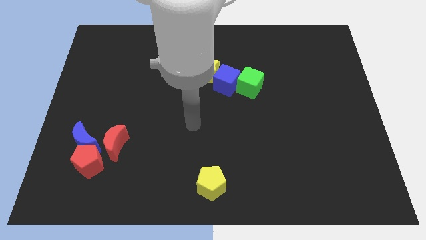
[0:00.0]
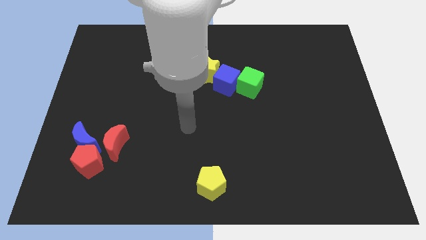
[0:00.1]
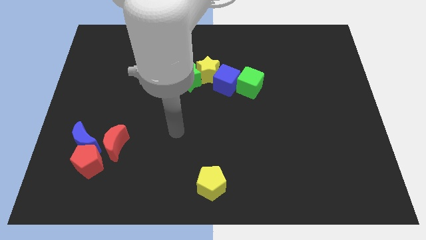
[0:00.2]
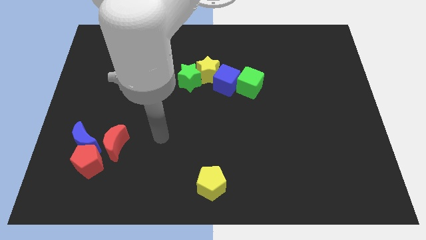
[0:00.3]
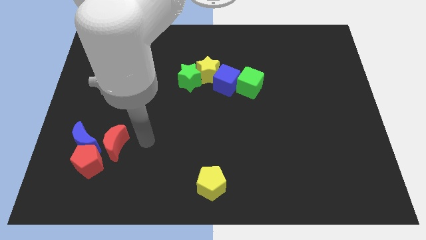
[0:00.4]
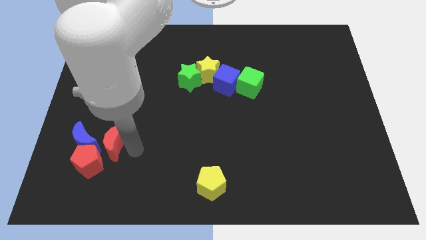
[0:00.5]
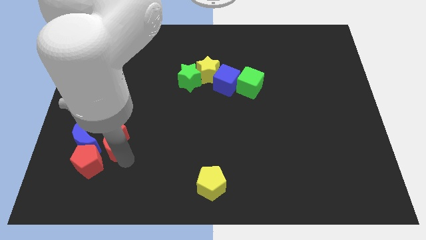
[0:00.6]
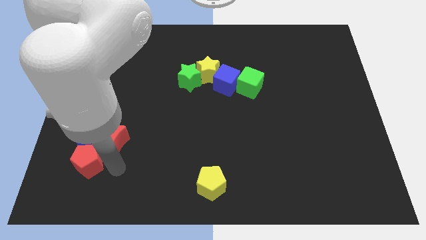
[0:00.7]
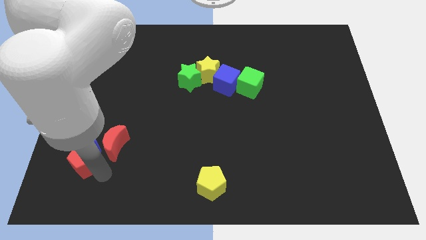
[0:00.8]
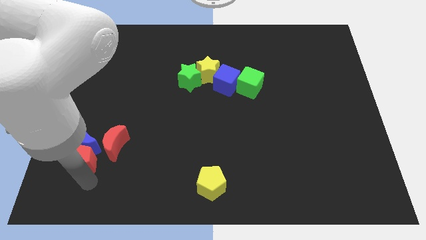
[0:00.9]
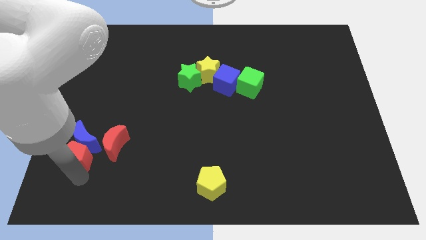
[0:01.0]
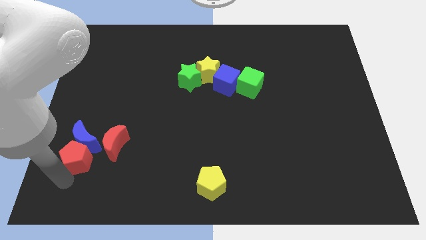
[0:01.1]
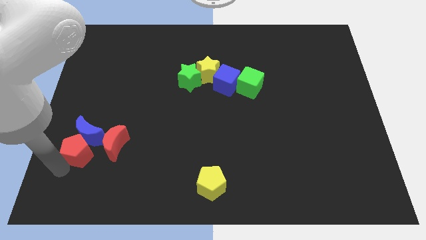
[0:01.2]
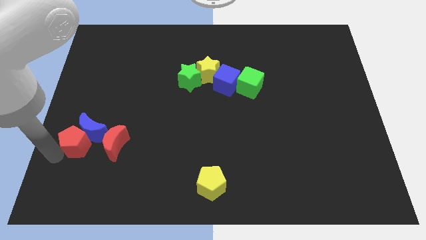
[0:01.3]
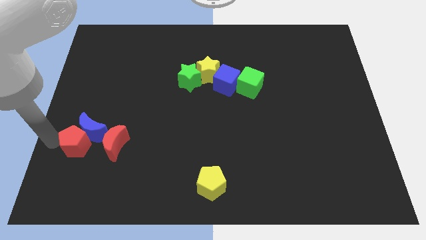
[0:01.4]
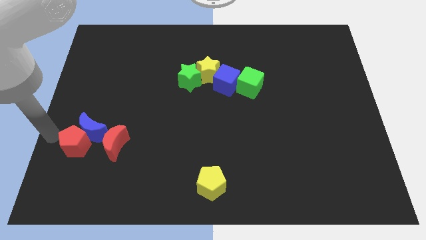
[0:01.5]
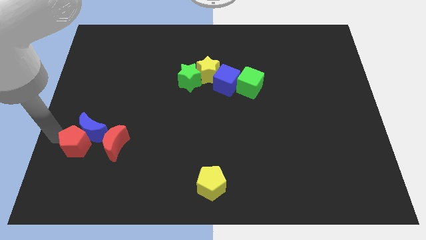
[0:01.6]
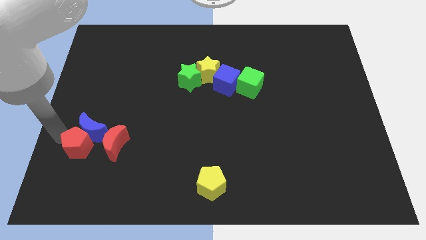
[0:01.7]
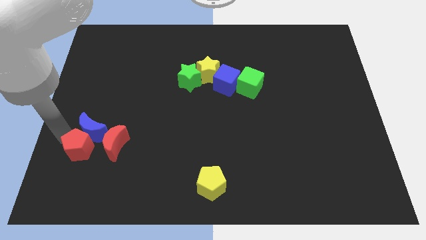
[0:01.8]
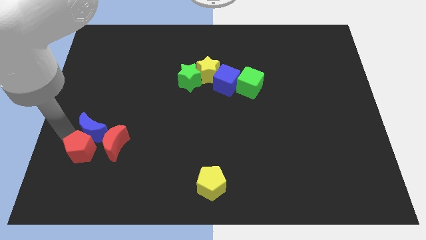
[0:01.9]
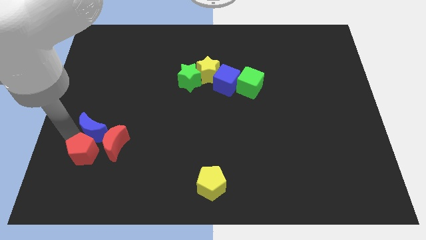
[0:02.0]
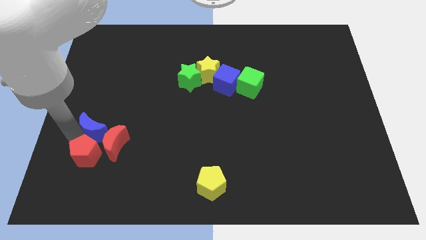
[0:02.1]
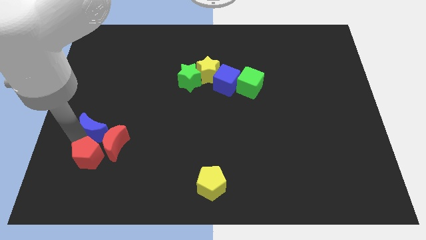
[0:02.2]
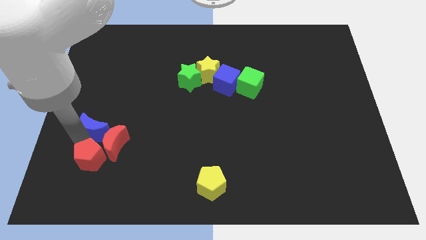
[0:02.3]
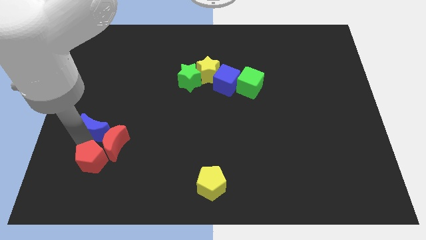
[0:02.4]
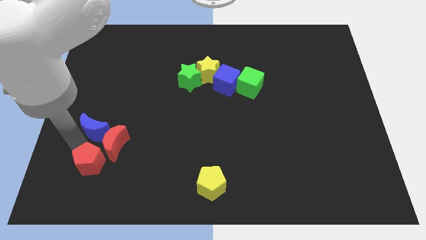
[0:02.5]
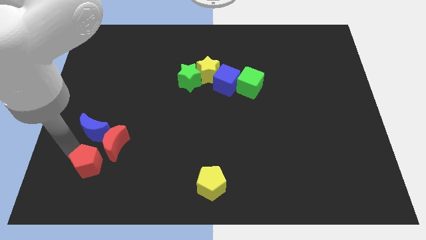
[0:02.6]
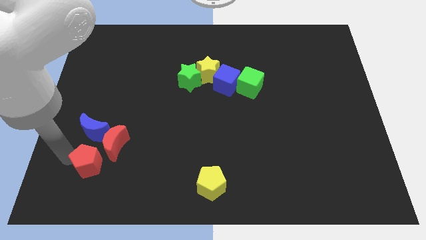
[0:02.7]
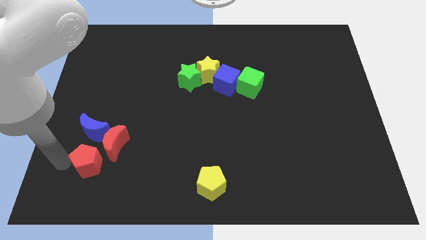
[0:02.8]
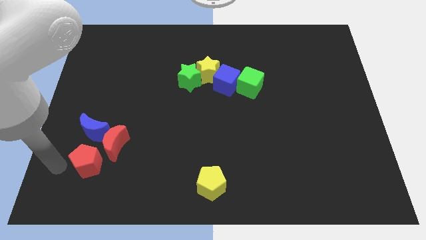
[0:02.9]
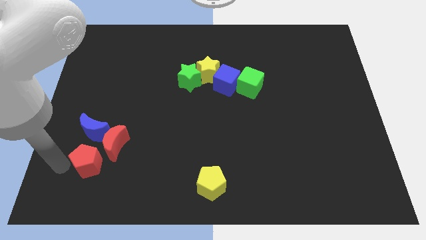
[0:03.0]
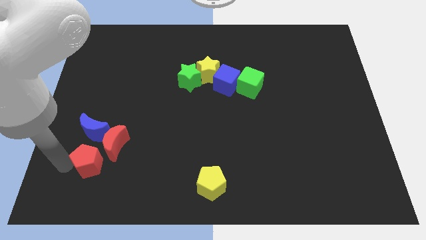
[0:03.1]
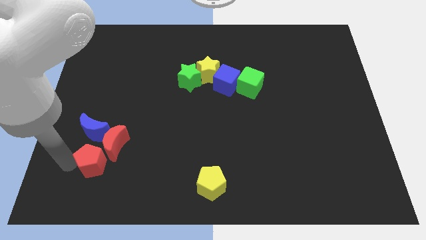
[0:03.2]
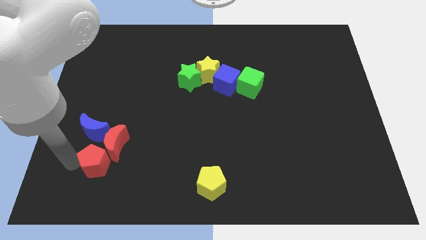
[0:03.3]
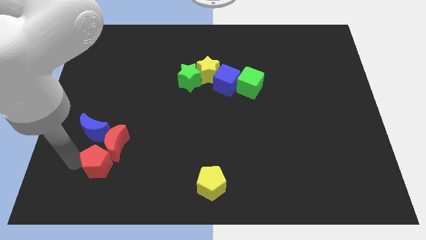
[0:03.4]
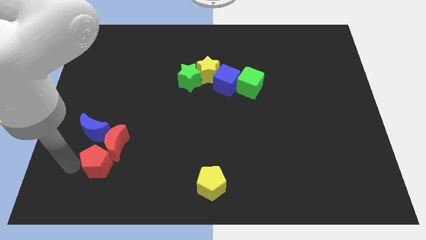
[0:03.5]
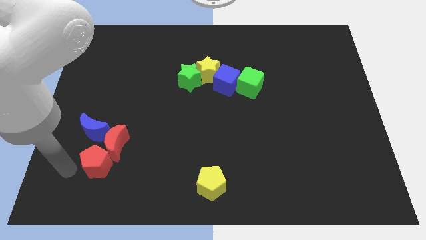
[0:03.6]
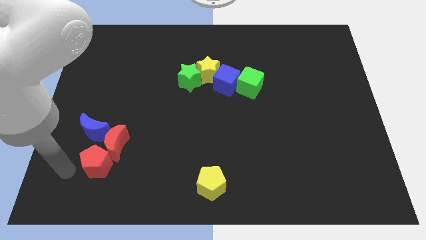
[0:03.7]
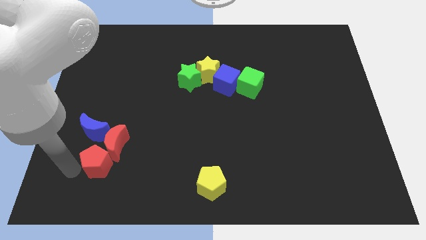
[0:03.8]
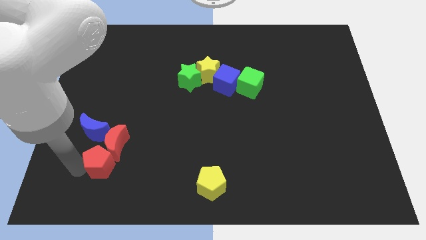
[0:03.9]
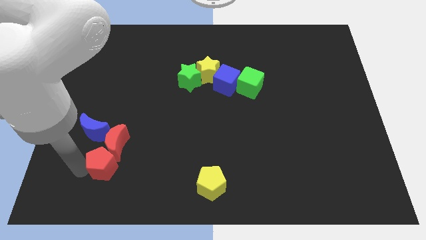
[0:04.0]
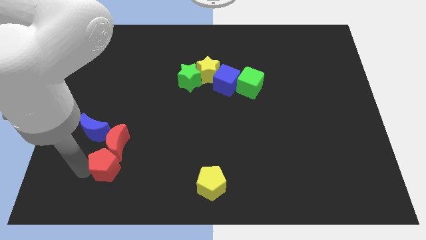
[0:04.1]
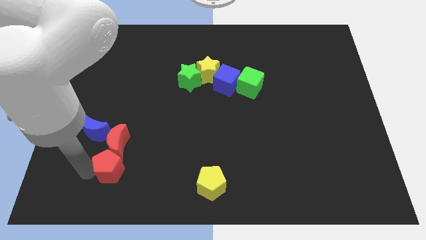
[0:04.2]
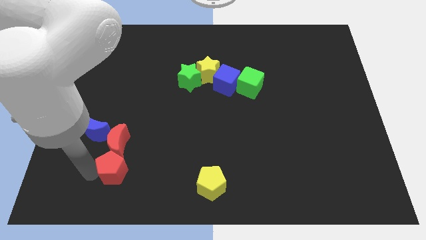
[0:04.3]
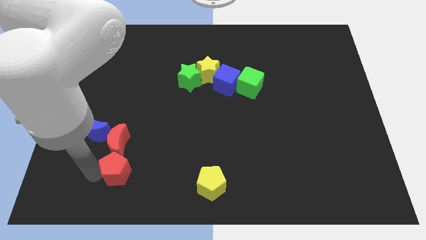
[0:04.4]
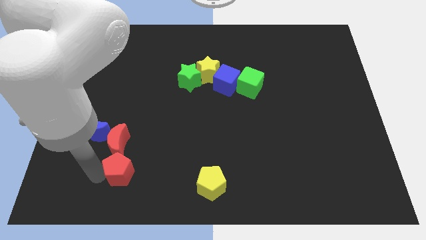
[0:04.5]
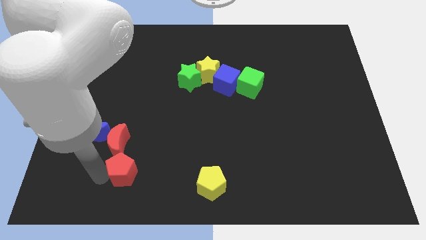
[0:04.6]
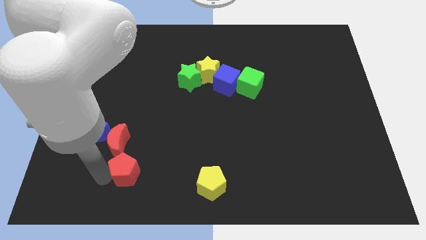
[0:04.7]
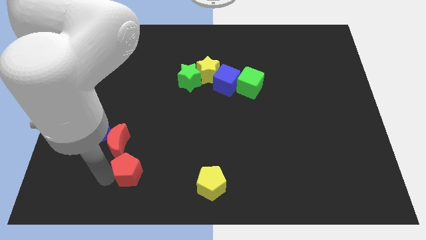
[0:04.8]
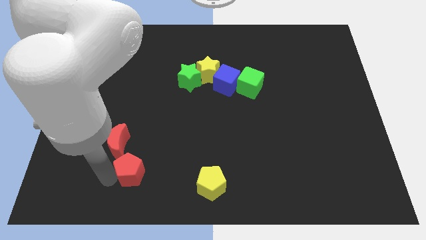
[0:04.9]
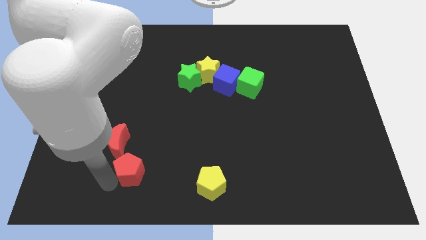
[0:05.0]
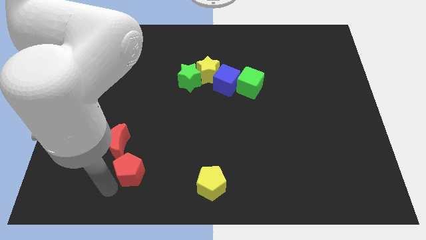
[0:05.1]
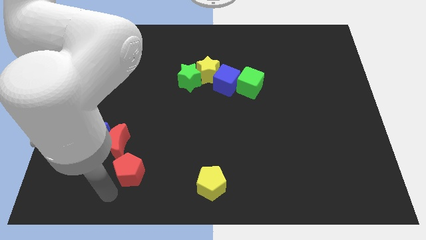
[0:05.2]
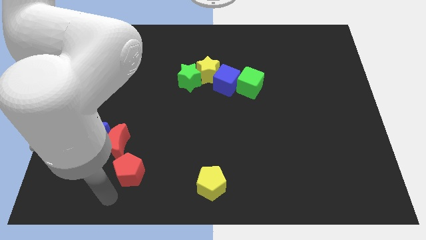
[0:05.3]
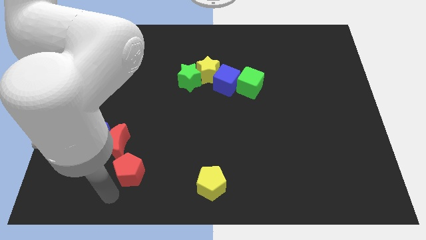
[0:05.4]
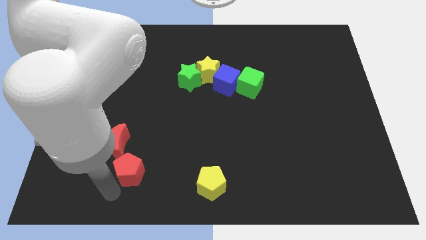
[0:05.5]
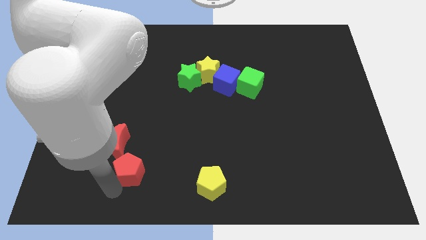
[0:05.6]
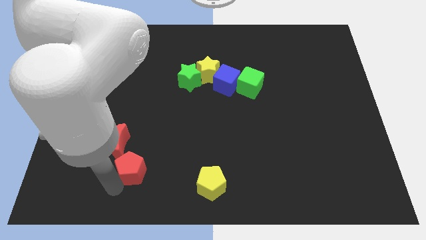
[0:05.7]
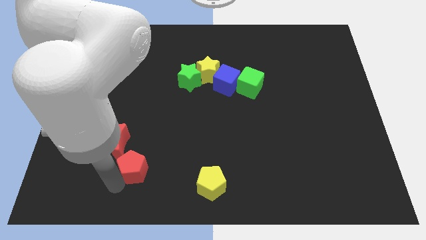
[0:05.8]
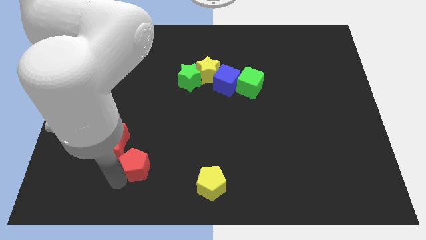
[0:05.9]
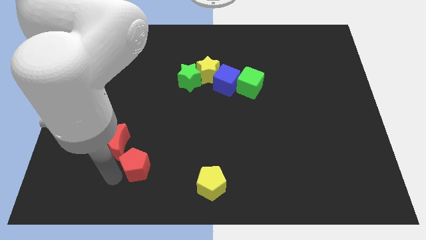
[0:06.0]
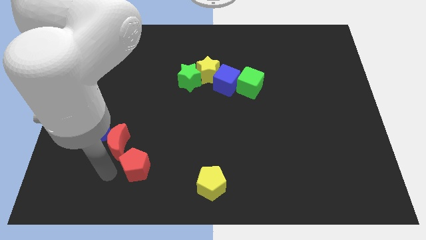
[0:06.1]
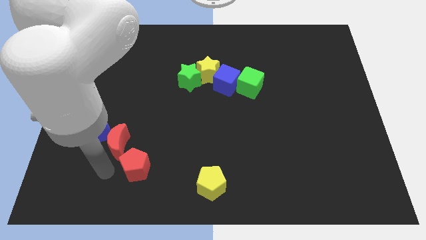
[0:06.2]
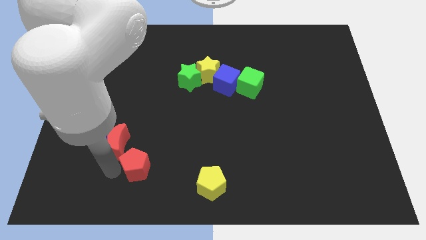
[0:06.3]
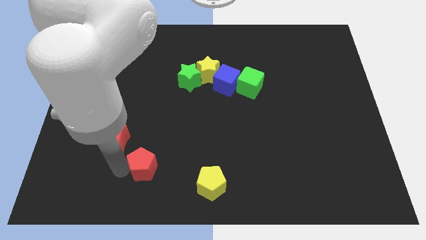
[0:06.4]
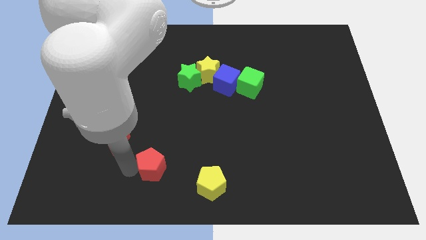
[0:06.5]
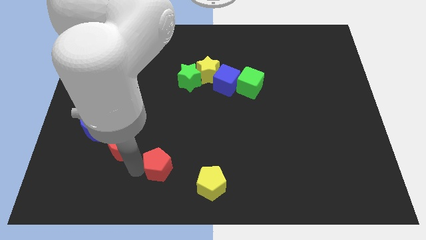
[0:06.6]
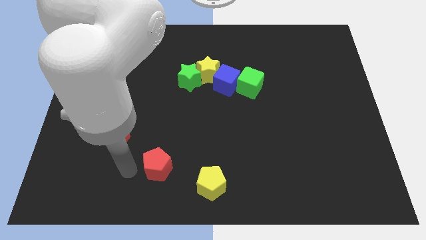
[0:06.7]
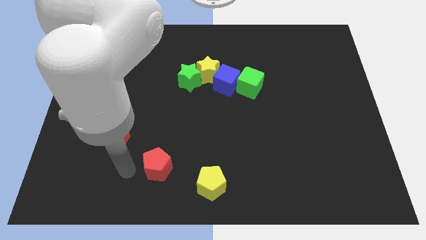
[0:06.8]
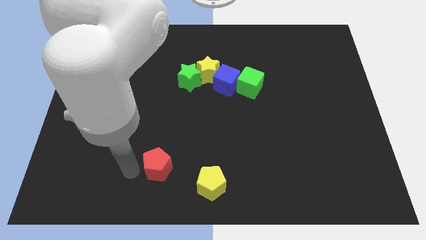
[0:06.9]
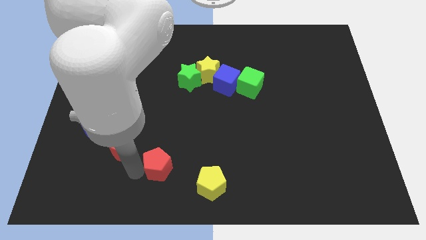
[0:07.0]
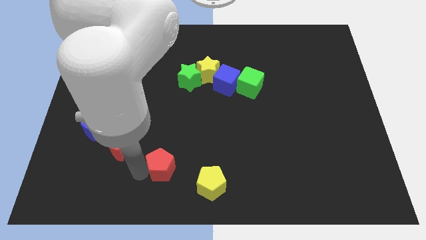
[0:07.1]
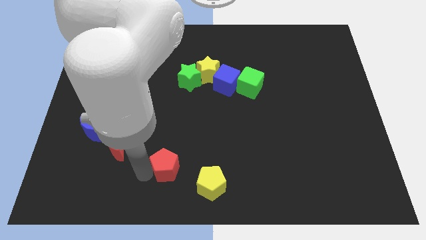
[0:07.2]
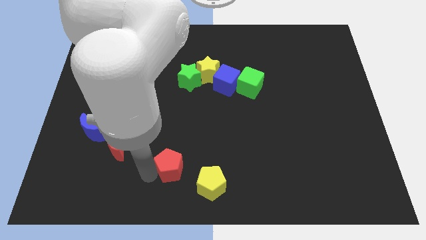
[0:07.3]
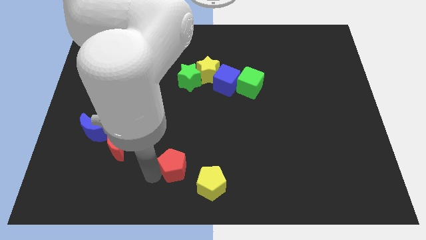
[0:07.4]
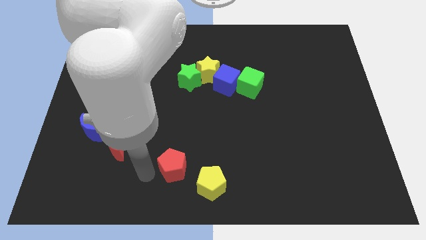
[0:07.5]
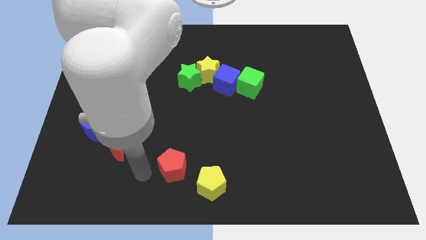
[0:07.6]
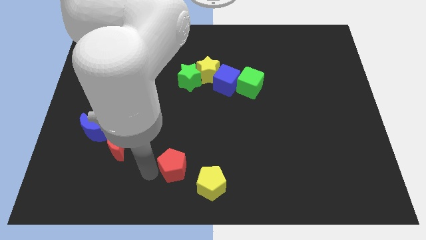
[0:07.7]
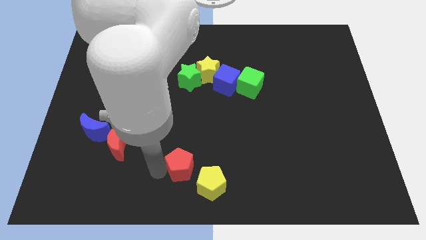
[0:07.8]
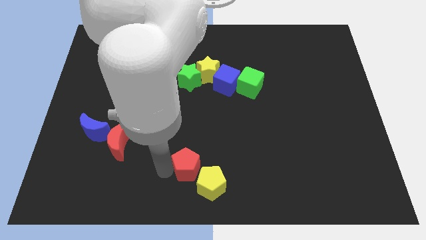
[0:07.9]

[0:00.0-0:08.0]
push the red pentagon to the right

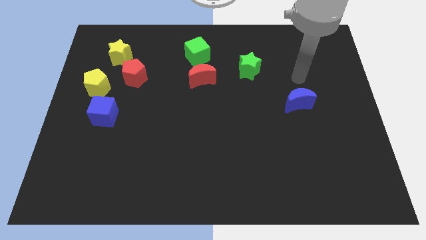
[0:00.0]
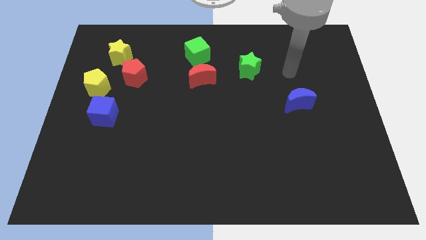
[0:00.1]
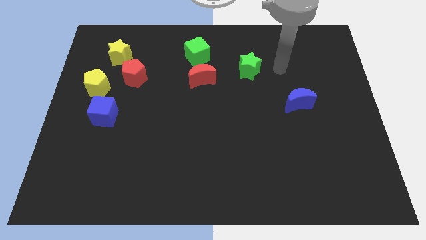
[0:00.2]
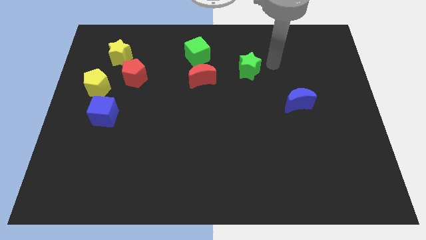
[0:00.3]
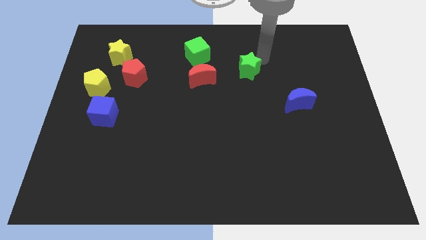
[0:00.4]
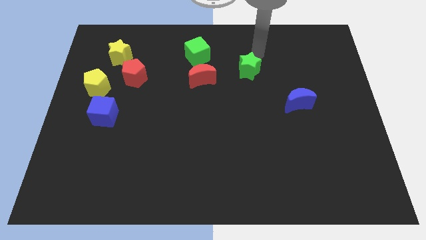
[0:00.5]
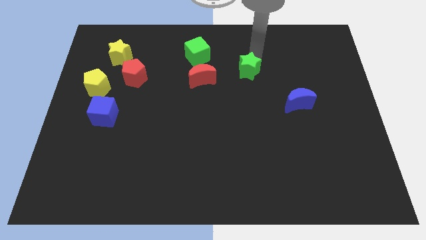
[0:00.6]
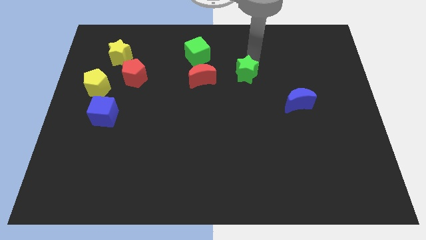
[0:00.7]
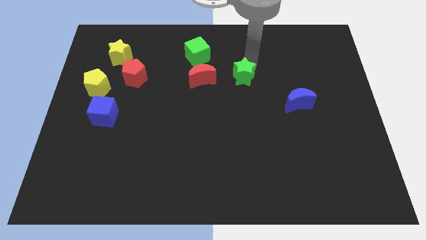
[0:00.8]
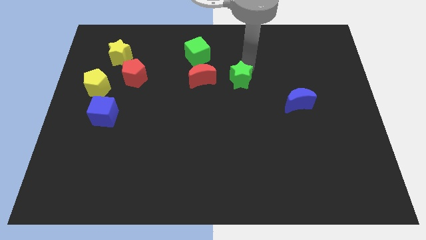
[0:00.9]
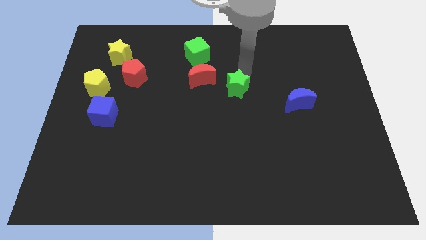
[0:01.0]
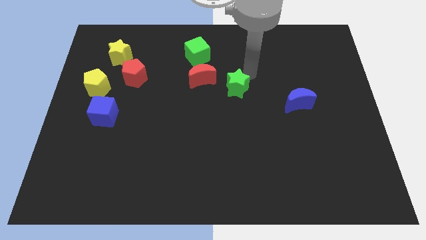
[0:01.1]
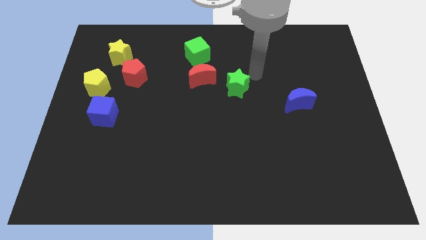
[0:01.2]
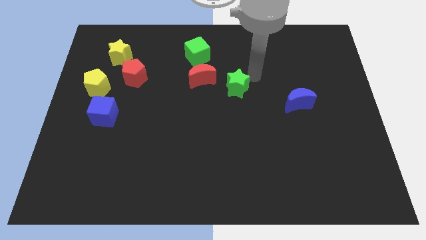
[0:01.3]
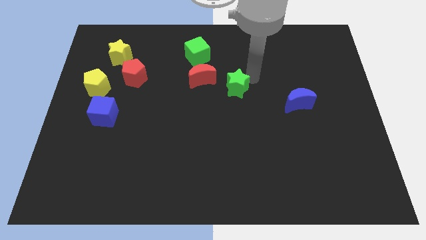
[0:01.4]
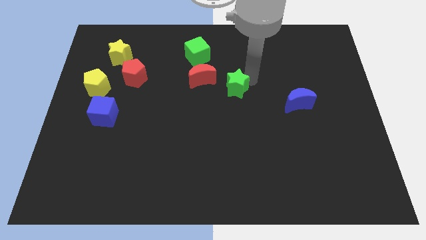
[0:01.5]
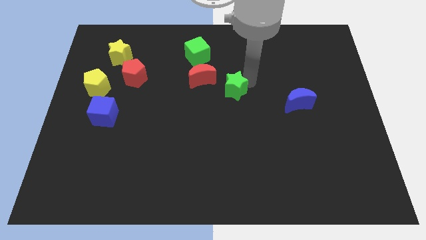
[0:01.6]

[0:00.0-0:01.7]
push the green star slightly downwards and to the left
